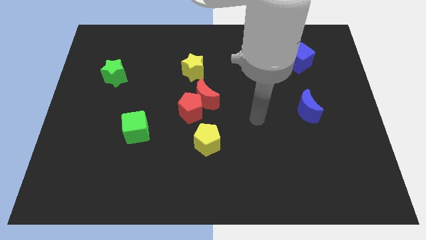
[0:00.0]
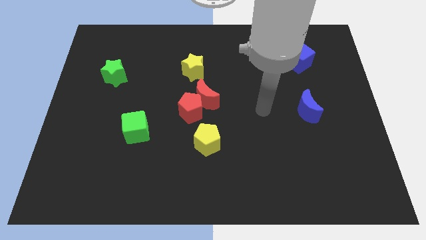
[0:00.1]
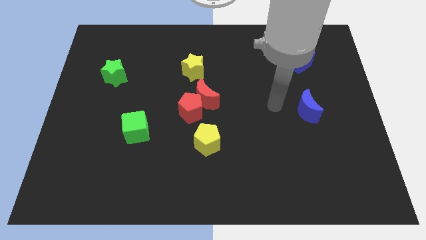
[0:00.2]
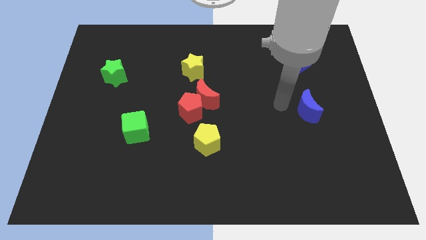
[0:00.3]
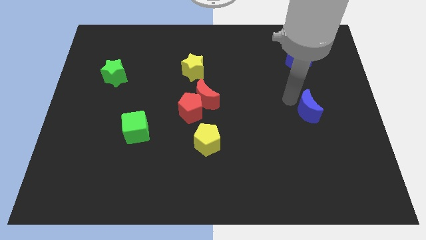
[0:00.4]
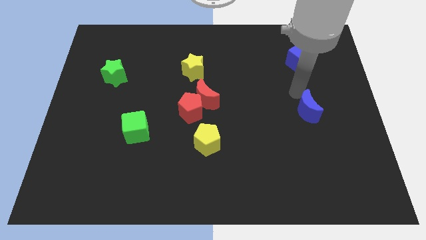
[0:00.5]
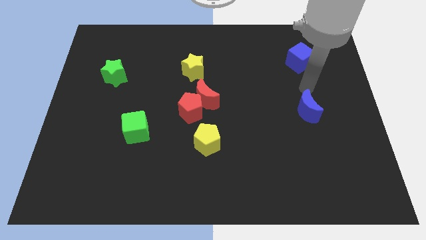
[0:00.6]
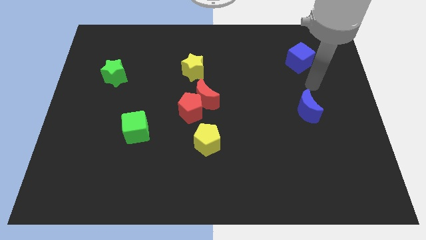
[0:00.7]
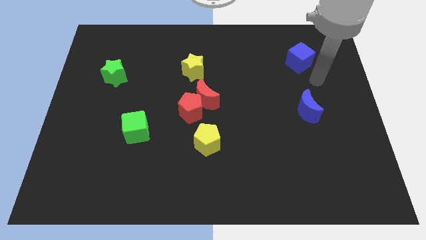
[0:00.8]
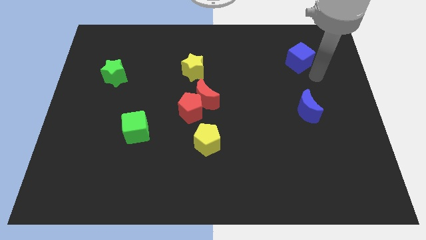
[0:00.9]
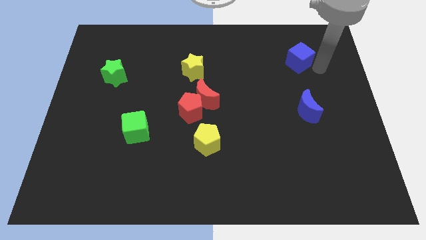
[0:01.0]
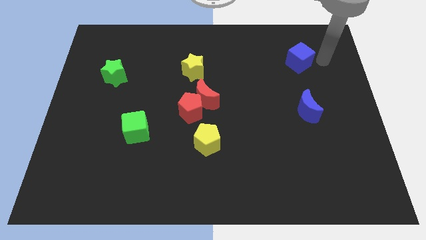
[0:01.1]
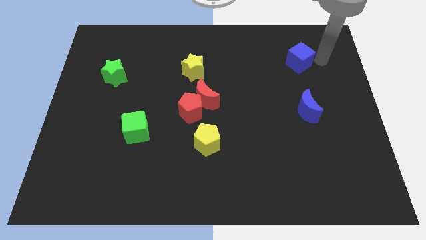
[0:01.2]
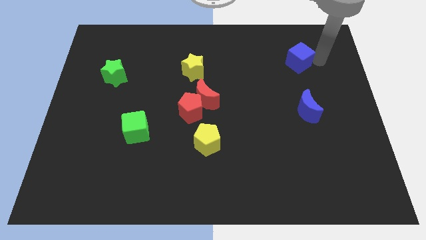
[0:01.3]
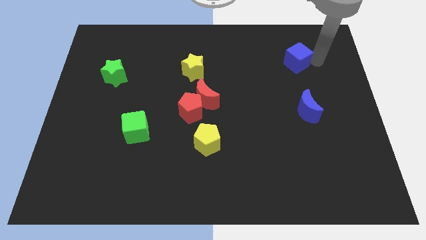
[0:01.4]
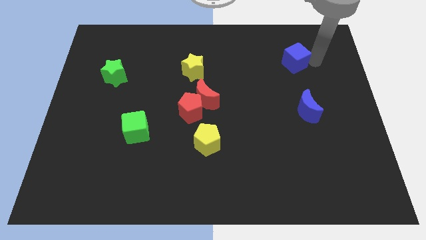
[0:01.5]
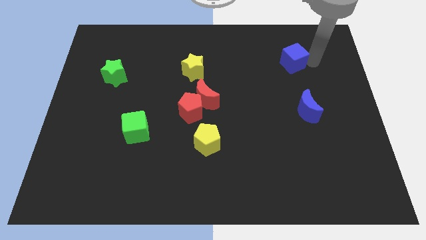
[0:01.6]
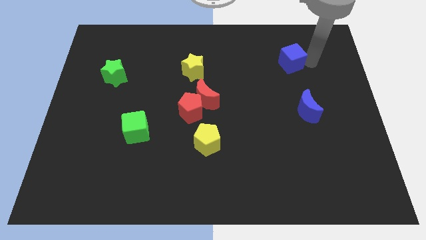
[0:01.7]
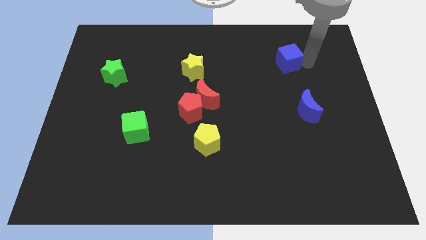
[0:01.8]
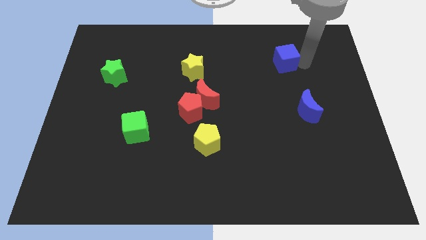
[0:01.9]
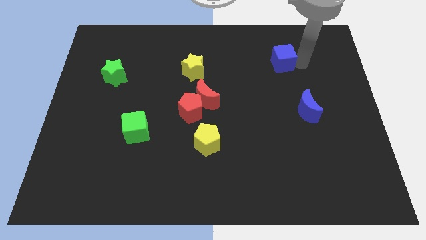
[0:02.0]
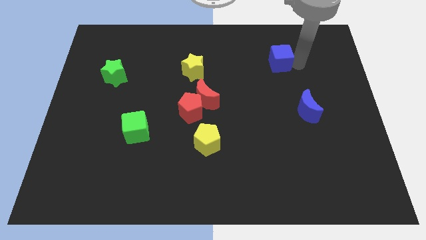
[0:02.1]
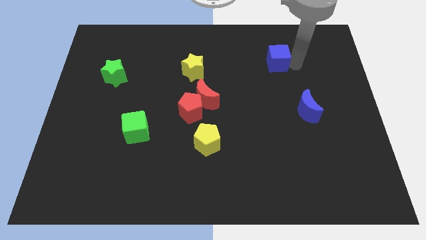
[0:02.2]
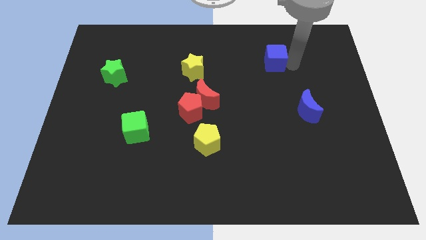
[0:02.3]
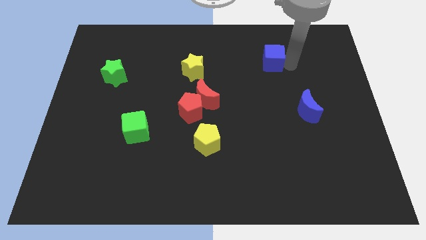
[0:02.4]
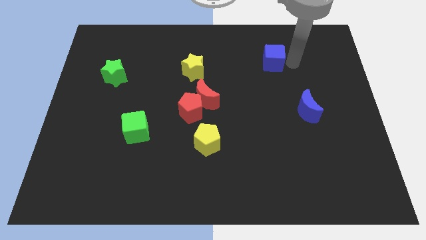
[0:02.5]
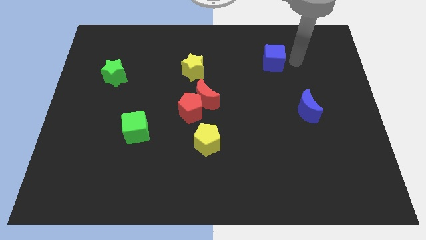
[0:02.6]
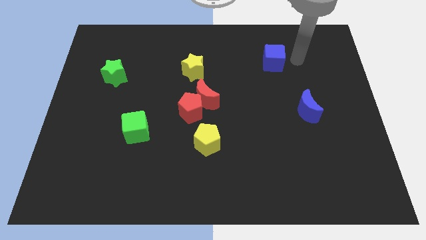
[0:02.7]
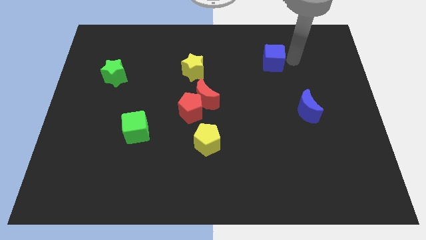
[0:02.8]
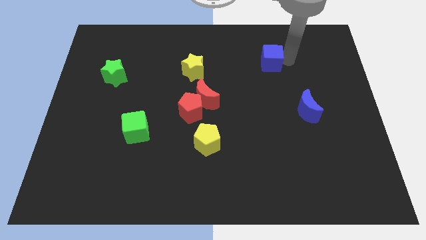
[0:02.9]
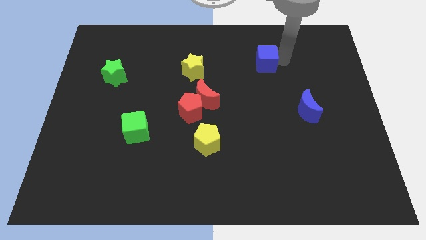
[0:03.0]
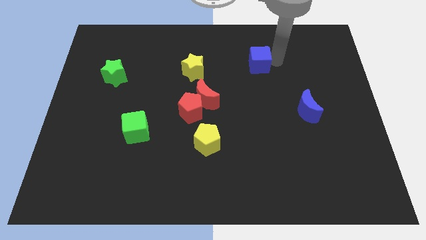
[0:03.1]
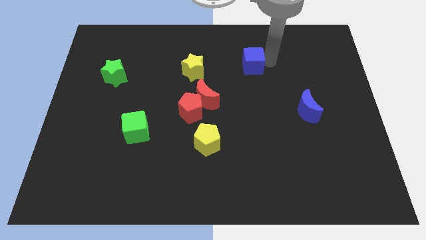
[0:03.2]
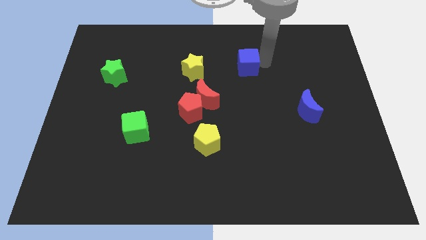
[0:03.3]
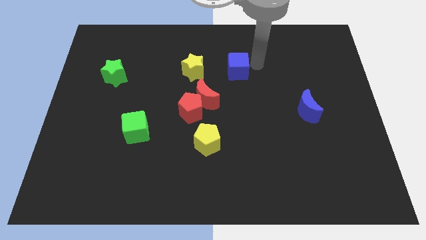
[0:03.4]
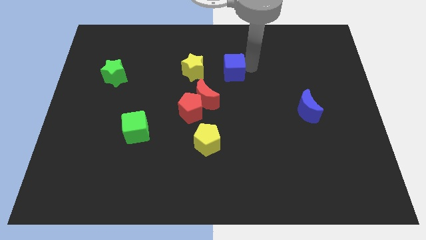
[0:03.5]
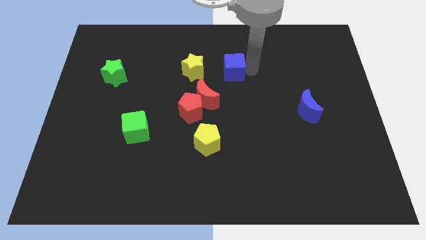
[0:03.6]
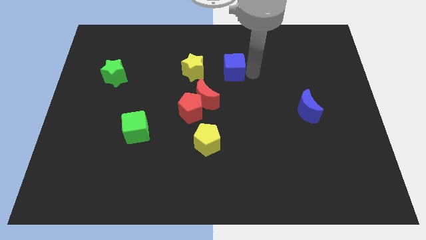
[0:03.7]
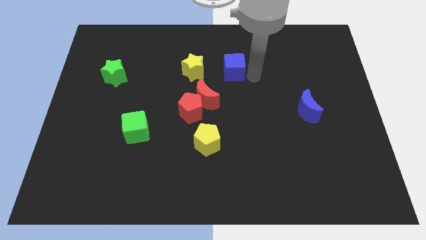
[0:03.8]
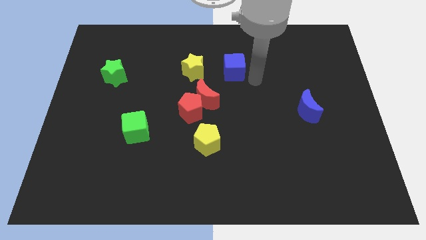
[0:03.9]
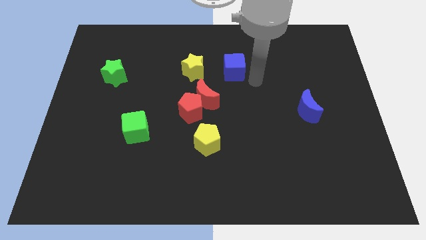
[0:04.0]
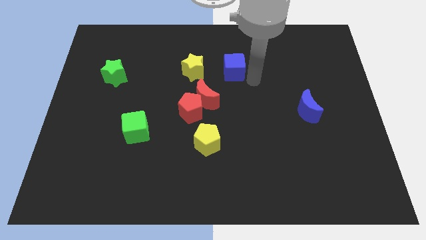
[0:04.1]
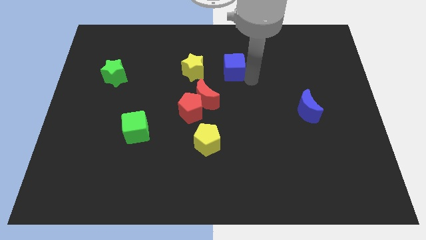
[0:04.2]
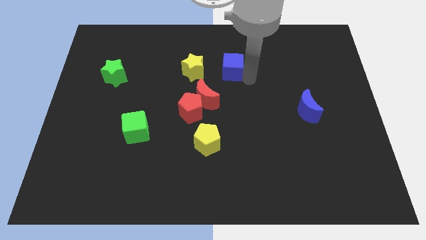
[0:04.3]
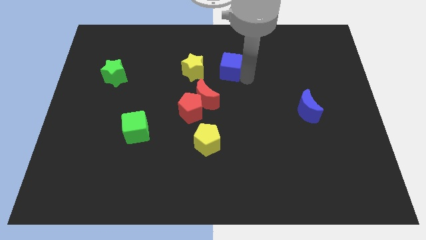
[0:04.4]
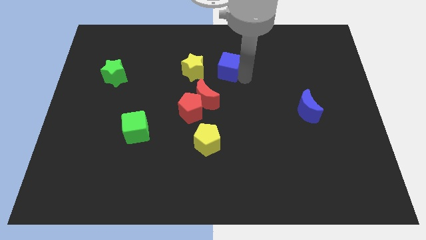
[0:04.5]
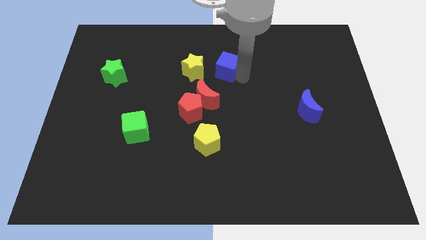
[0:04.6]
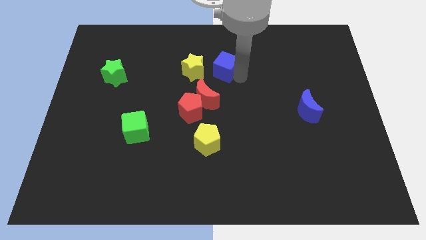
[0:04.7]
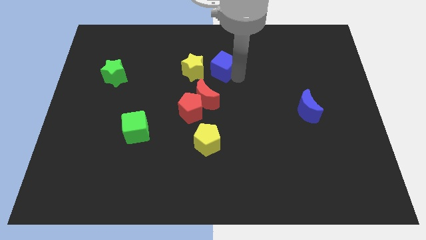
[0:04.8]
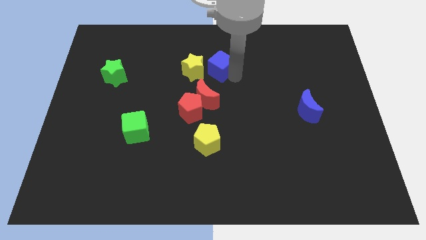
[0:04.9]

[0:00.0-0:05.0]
slide the blue cube to the left

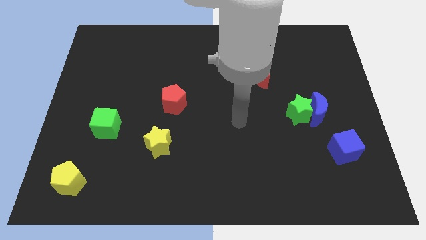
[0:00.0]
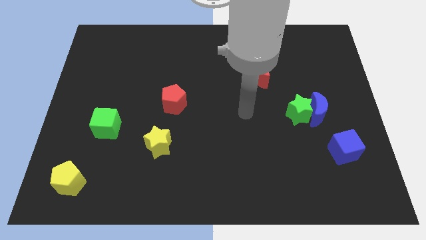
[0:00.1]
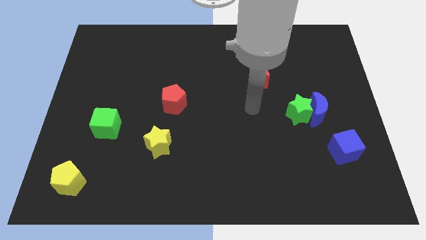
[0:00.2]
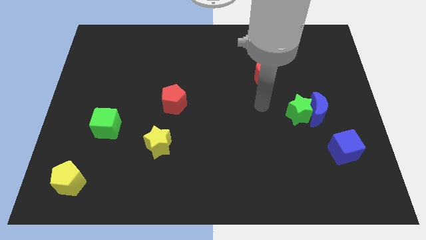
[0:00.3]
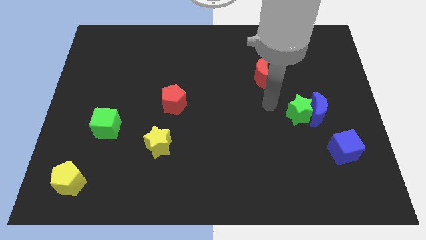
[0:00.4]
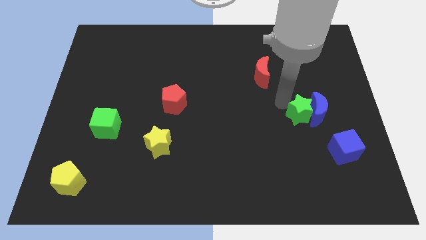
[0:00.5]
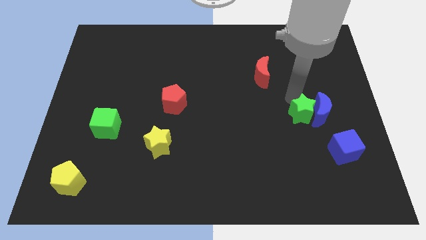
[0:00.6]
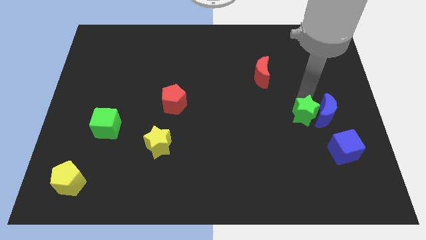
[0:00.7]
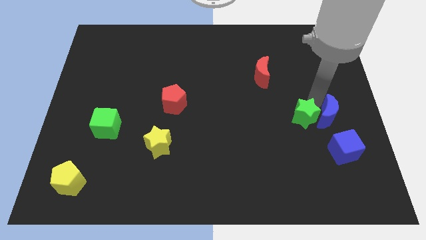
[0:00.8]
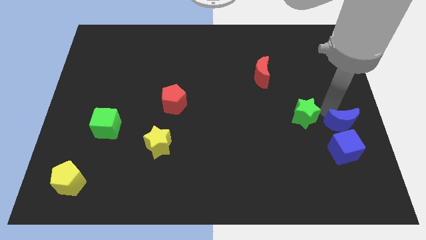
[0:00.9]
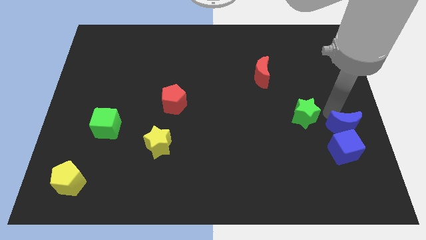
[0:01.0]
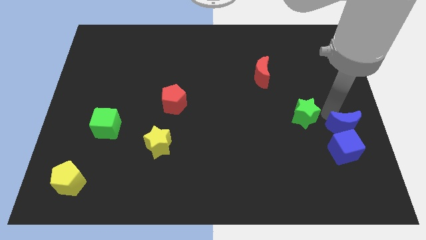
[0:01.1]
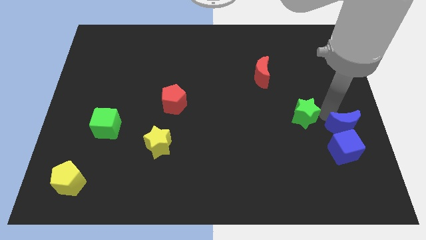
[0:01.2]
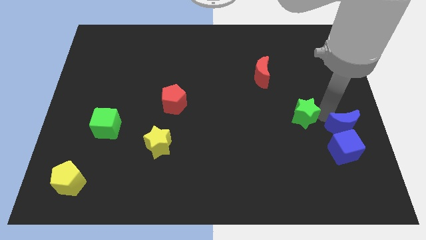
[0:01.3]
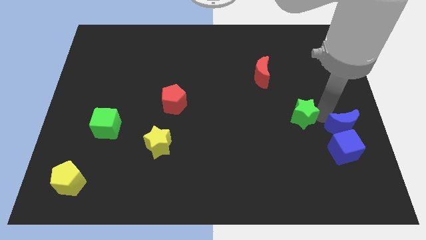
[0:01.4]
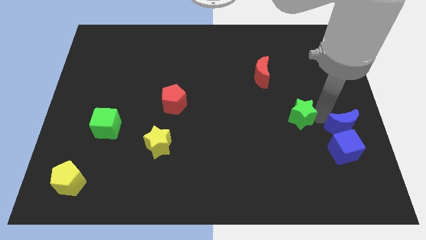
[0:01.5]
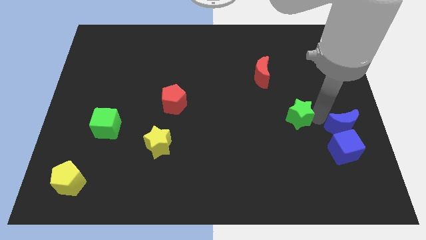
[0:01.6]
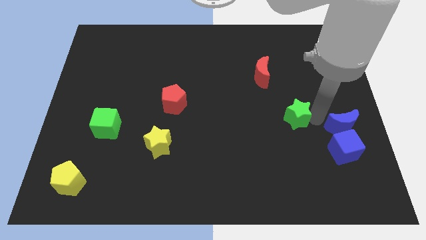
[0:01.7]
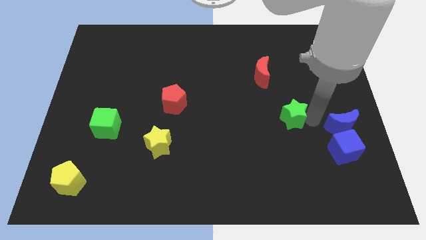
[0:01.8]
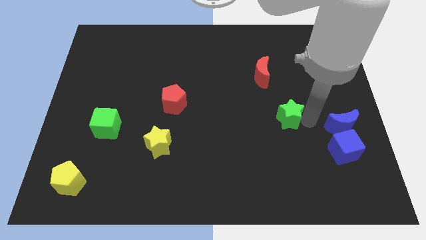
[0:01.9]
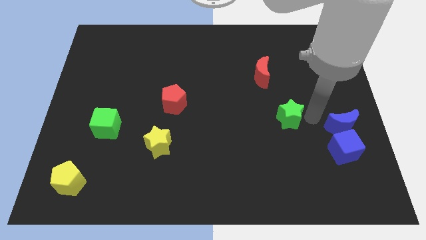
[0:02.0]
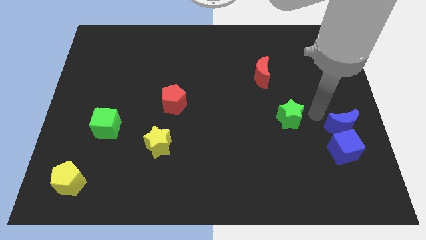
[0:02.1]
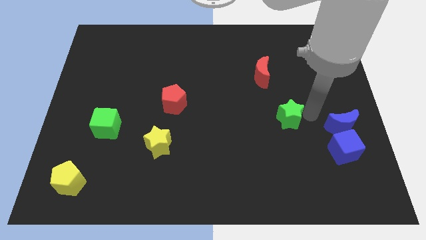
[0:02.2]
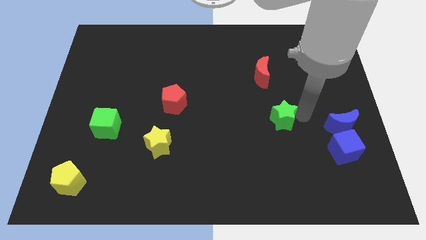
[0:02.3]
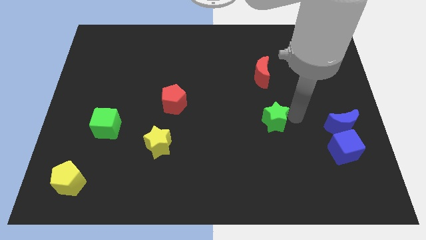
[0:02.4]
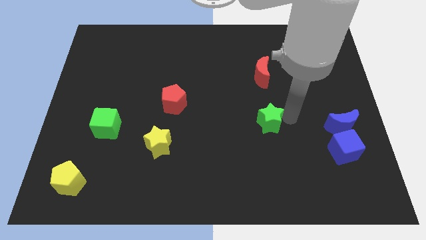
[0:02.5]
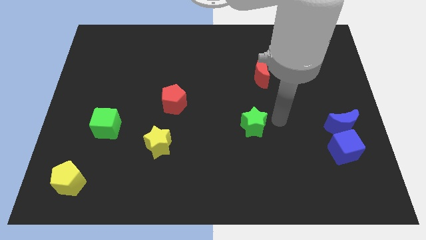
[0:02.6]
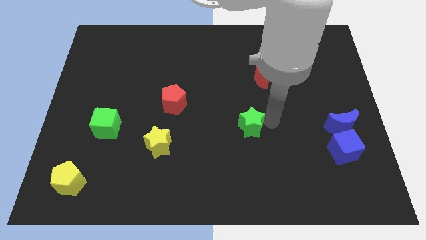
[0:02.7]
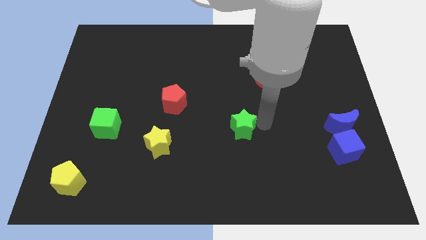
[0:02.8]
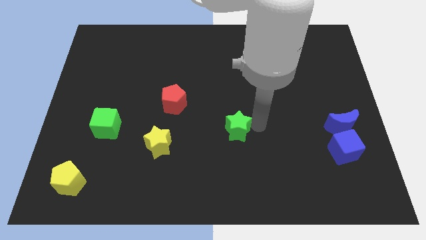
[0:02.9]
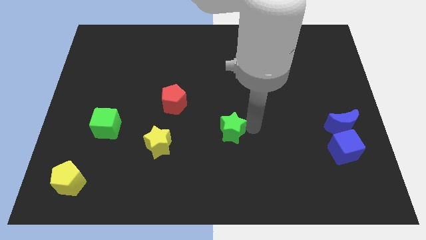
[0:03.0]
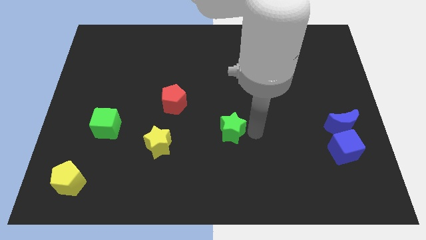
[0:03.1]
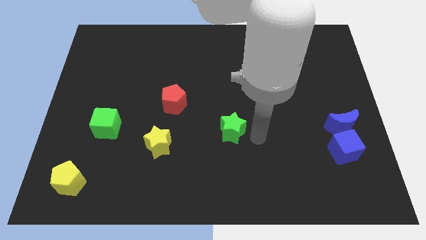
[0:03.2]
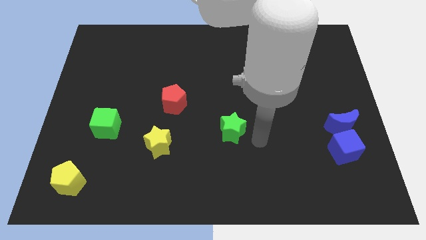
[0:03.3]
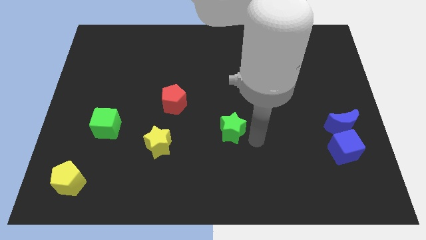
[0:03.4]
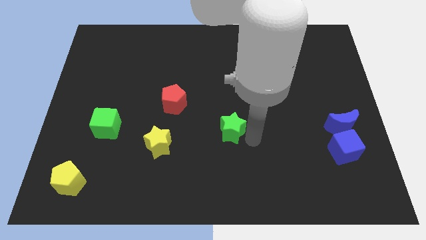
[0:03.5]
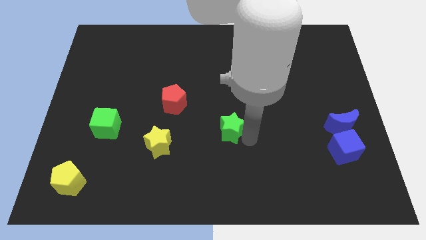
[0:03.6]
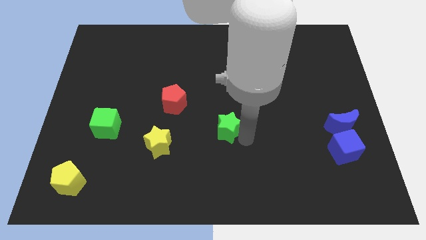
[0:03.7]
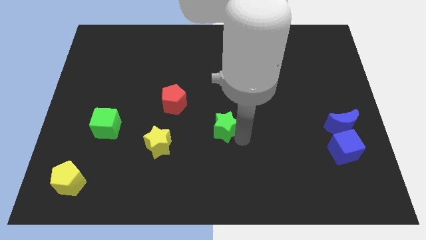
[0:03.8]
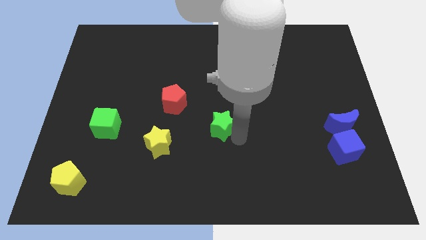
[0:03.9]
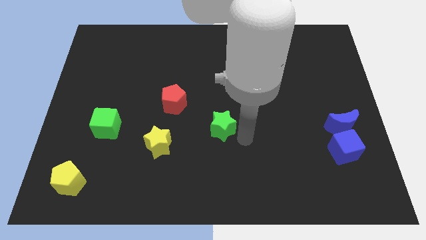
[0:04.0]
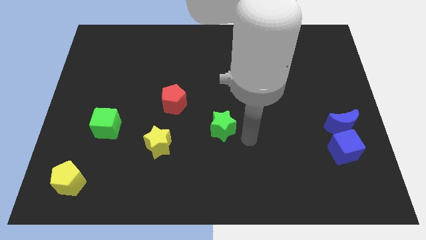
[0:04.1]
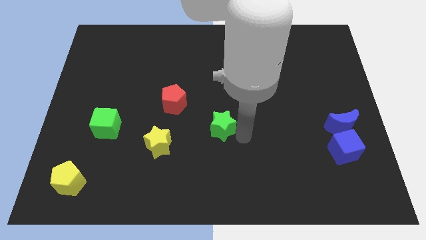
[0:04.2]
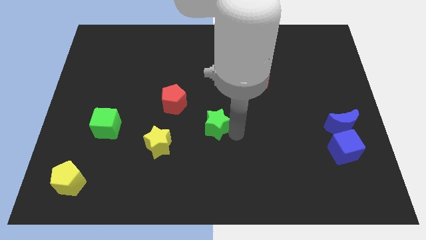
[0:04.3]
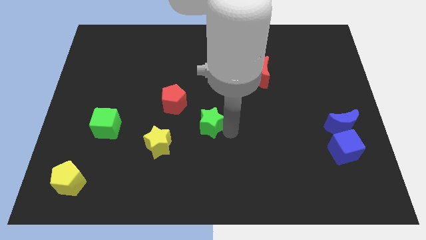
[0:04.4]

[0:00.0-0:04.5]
slide the green star to the left
